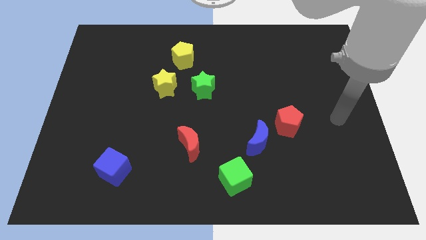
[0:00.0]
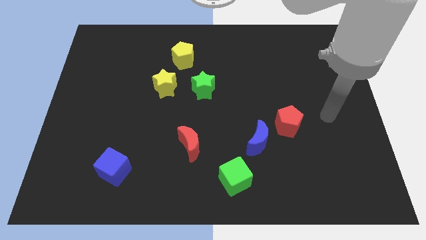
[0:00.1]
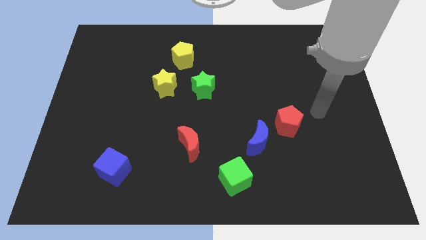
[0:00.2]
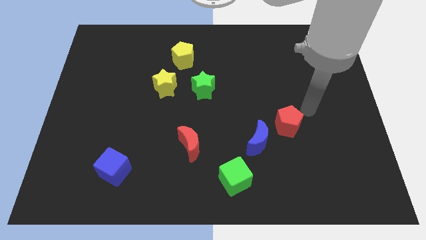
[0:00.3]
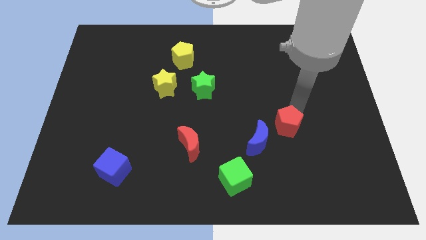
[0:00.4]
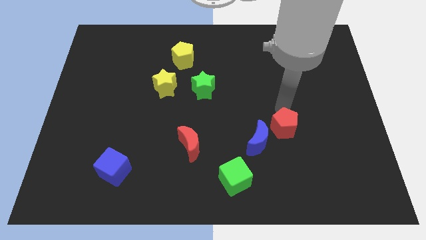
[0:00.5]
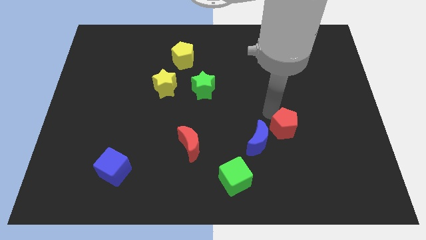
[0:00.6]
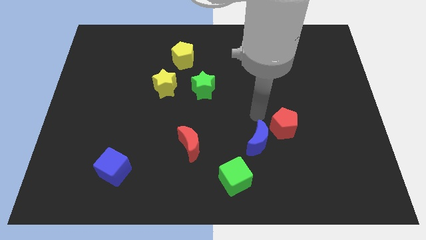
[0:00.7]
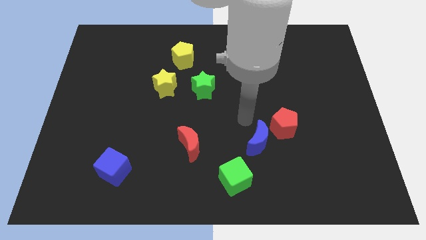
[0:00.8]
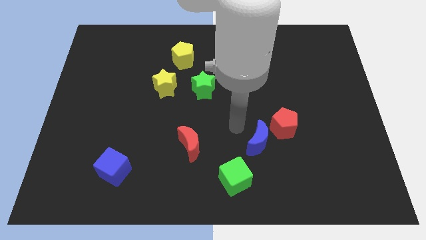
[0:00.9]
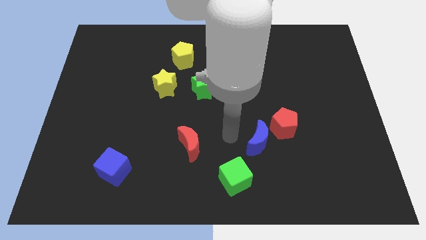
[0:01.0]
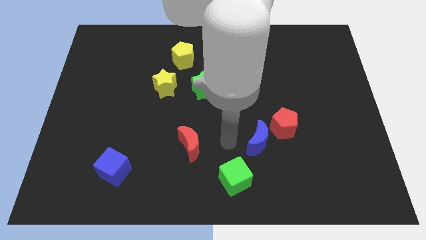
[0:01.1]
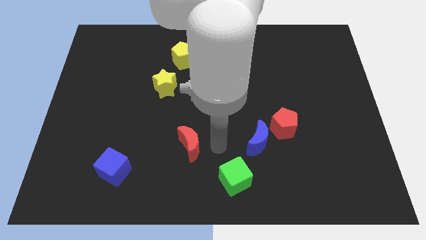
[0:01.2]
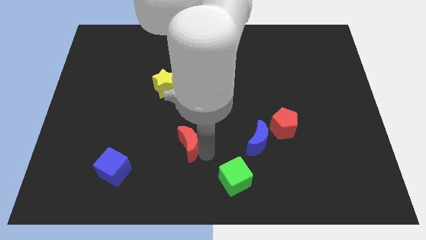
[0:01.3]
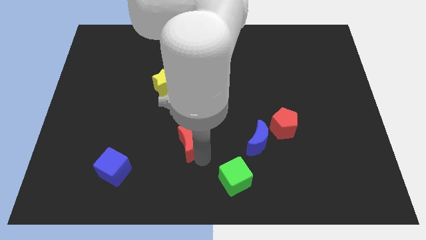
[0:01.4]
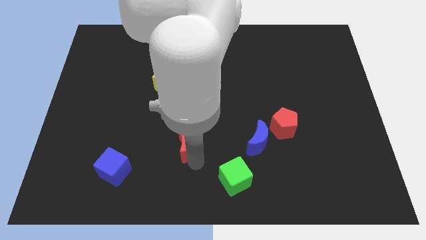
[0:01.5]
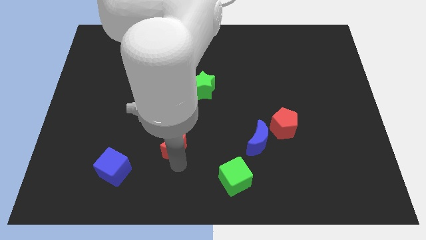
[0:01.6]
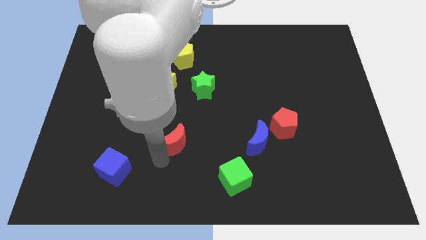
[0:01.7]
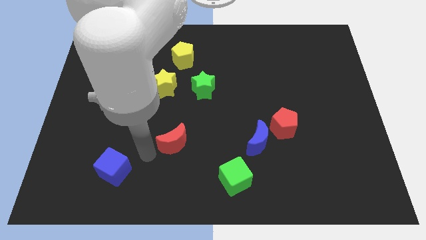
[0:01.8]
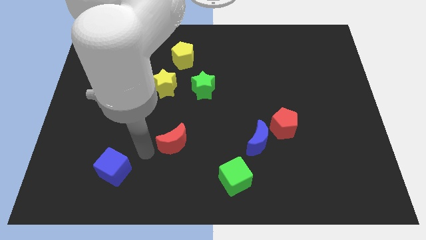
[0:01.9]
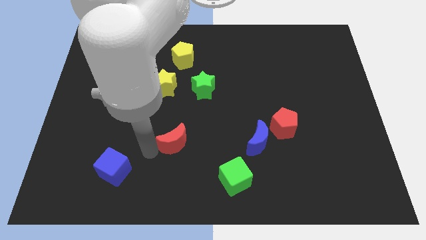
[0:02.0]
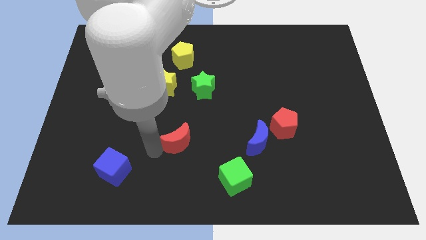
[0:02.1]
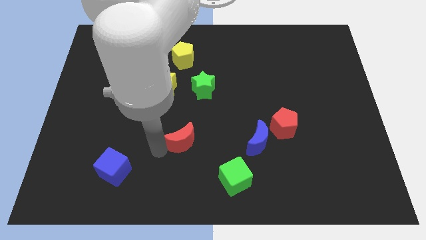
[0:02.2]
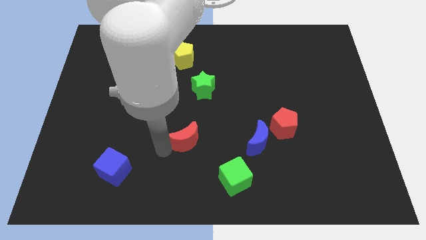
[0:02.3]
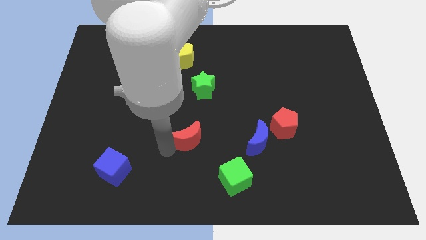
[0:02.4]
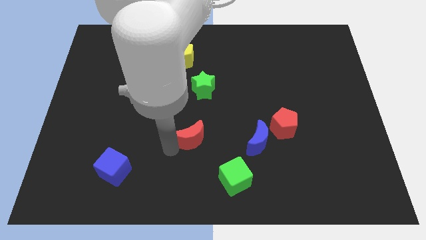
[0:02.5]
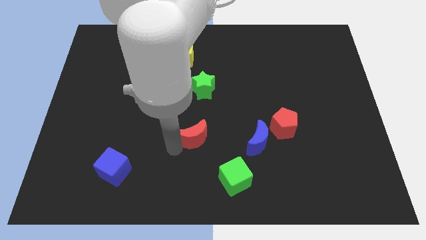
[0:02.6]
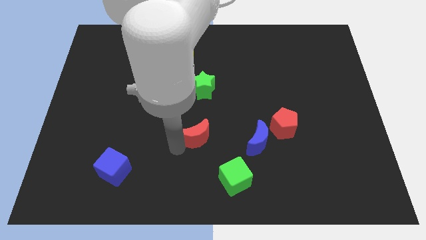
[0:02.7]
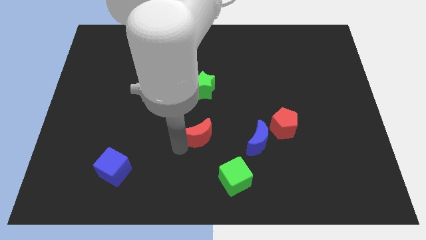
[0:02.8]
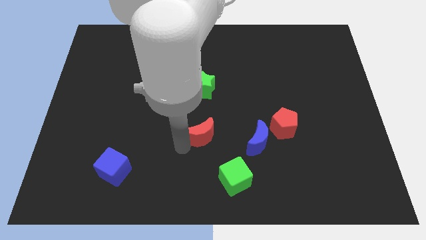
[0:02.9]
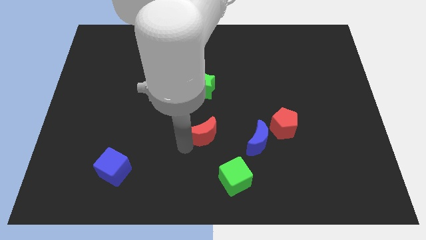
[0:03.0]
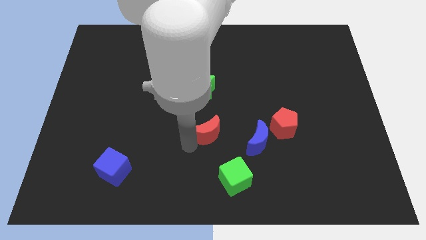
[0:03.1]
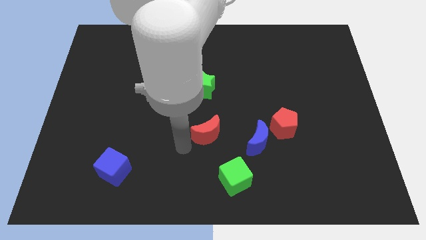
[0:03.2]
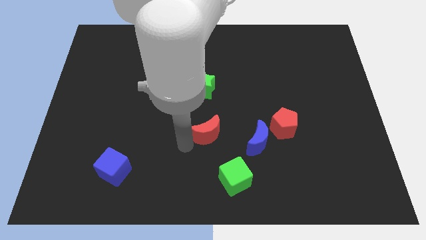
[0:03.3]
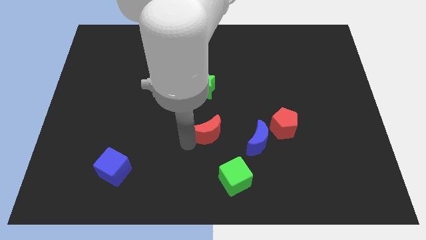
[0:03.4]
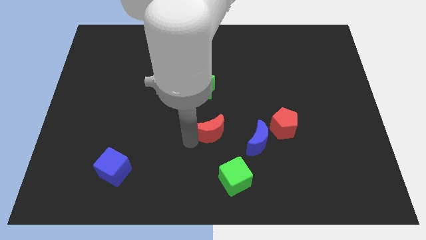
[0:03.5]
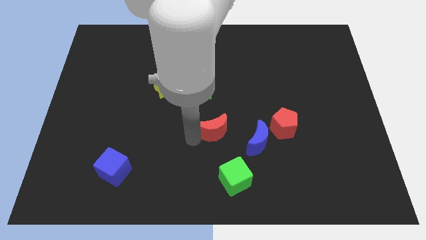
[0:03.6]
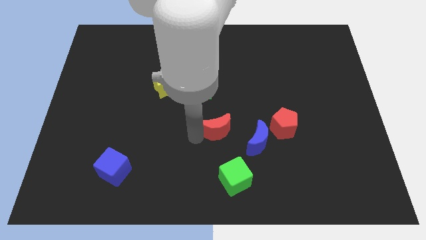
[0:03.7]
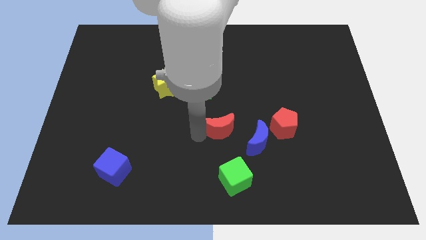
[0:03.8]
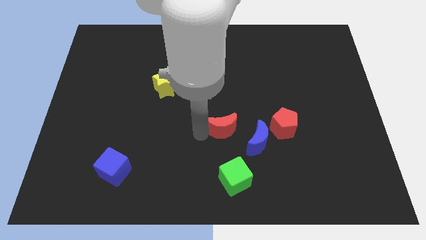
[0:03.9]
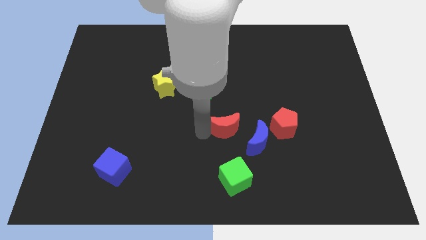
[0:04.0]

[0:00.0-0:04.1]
slide the red moon right slightly

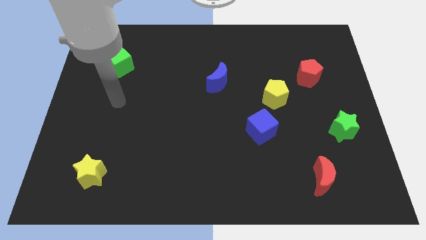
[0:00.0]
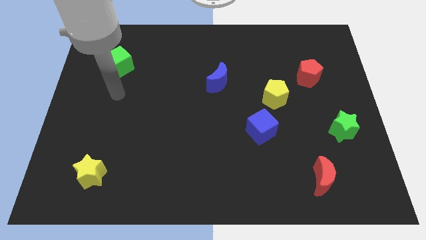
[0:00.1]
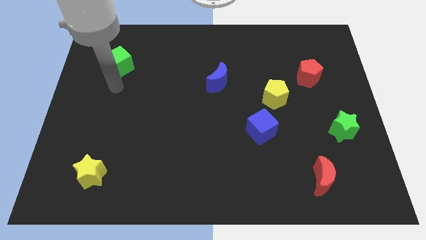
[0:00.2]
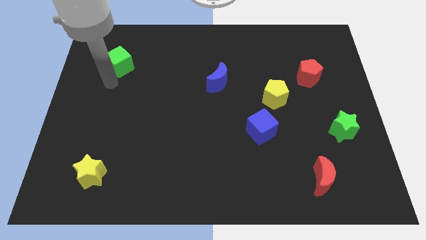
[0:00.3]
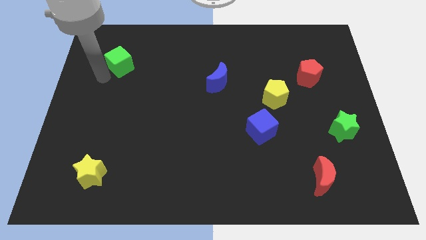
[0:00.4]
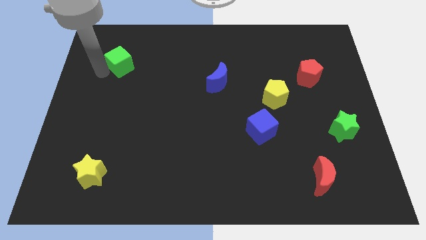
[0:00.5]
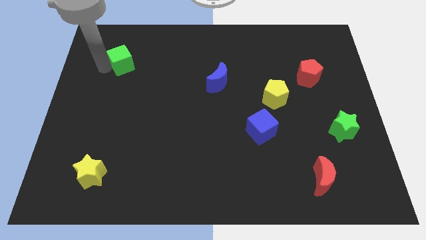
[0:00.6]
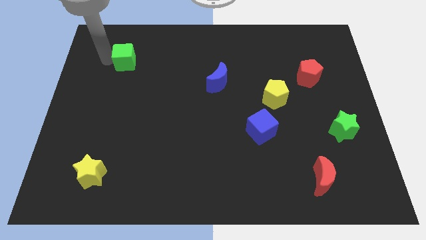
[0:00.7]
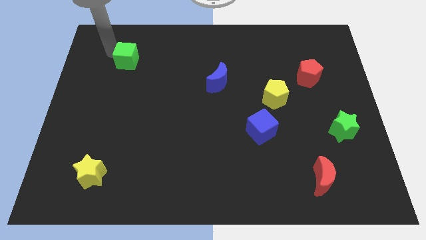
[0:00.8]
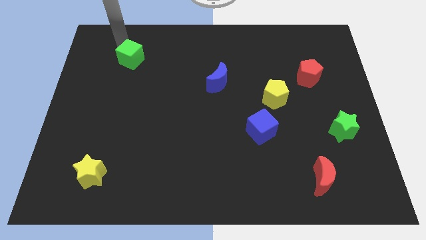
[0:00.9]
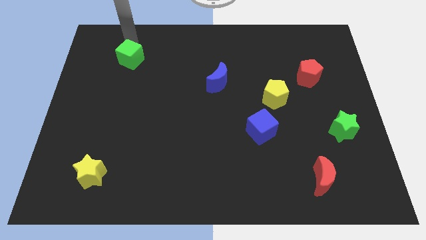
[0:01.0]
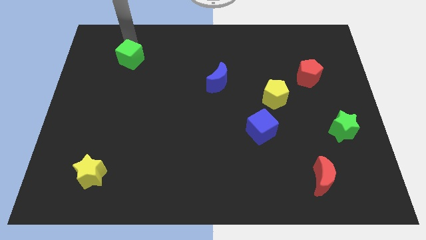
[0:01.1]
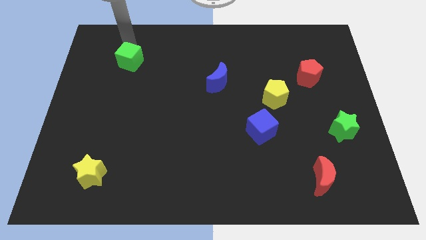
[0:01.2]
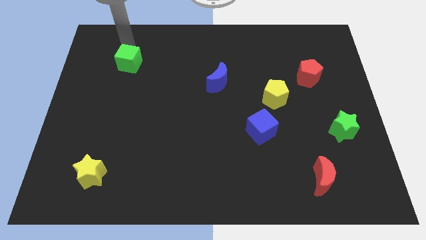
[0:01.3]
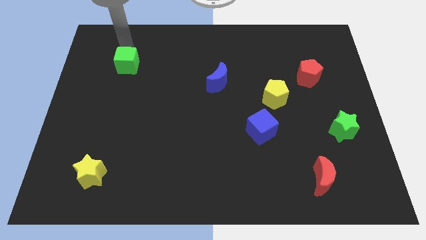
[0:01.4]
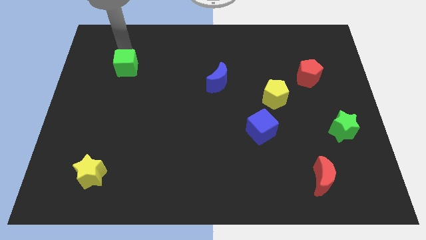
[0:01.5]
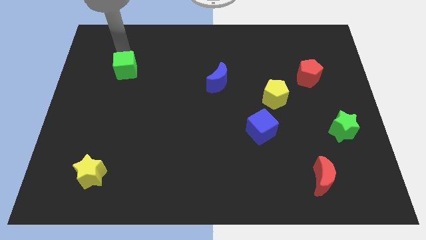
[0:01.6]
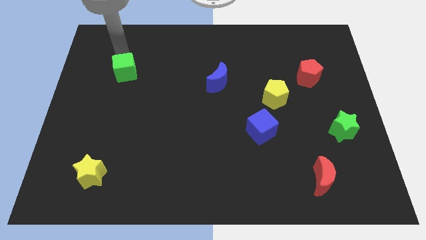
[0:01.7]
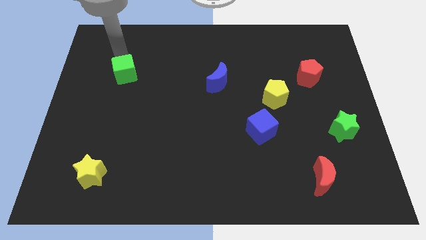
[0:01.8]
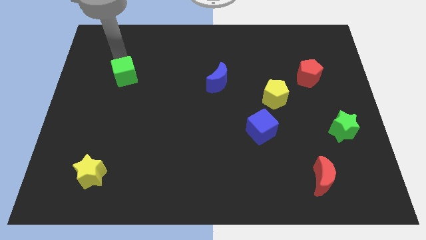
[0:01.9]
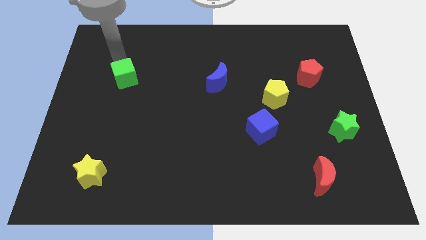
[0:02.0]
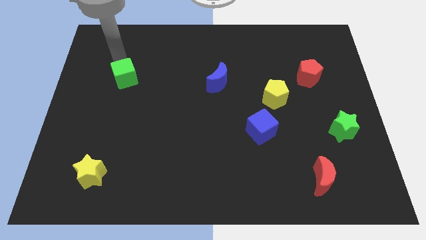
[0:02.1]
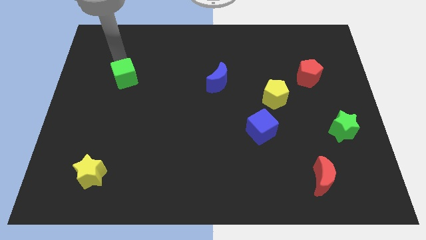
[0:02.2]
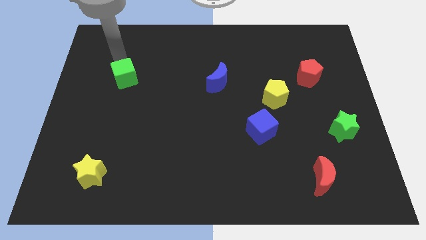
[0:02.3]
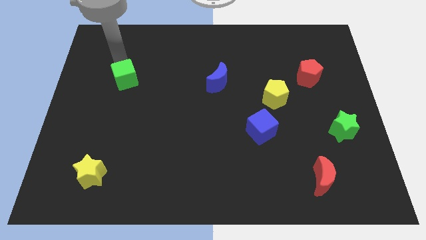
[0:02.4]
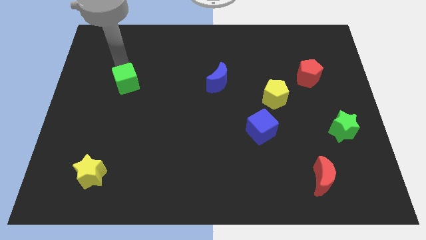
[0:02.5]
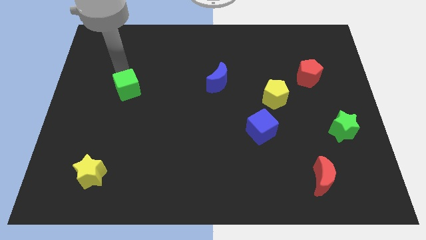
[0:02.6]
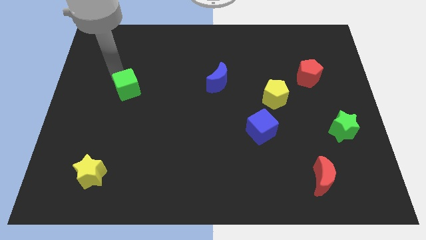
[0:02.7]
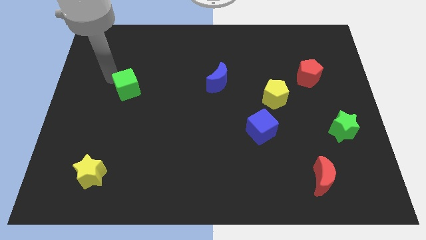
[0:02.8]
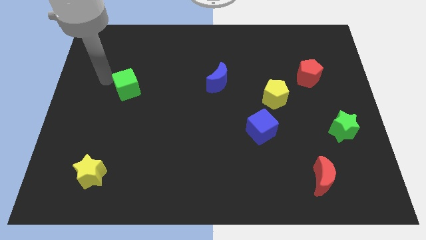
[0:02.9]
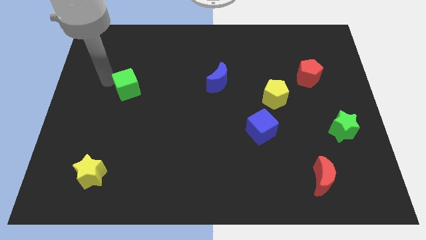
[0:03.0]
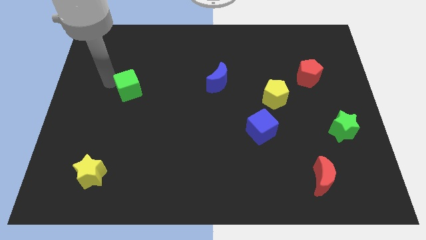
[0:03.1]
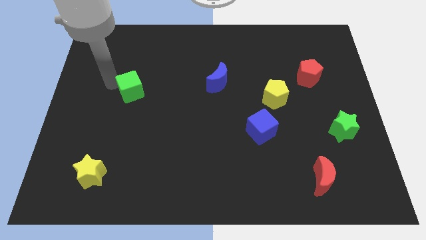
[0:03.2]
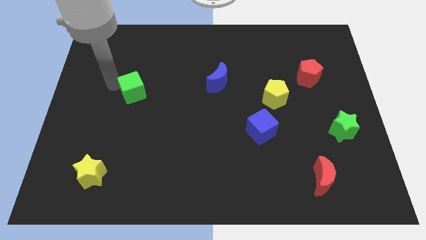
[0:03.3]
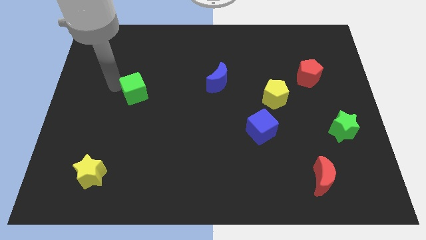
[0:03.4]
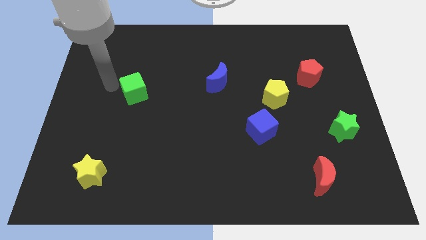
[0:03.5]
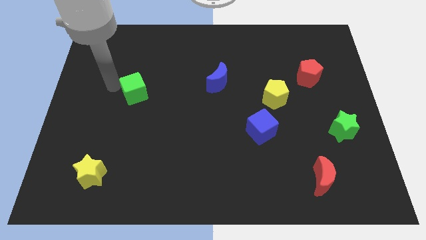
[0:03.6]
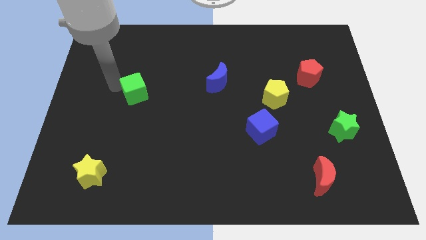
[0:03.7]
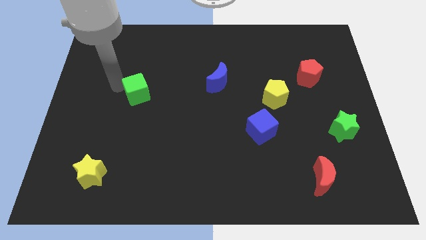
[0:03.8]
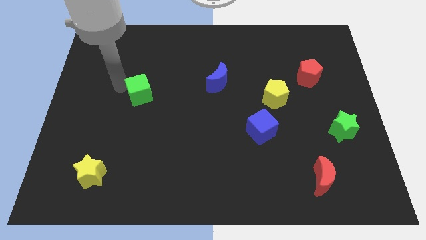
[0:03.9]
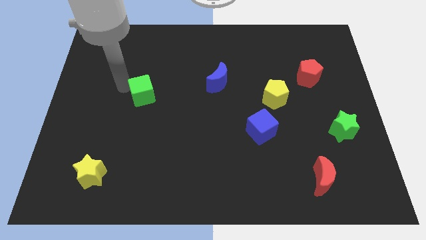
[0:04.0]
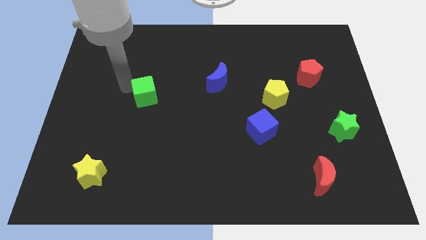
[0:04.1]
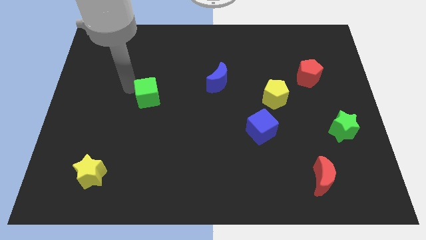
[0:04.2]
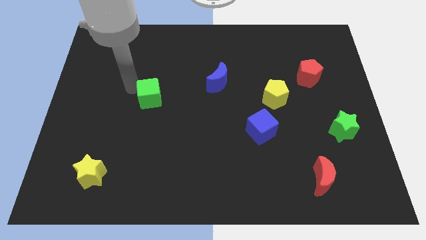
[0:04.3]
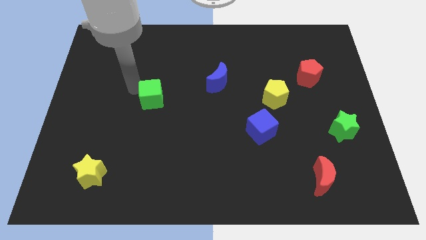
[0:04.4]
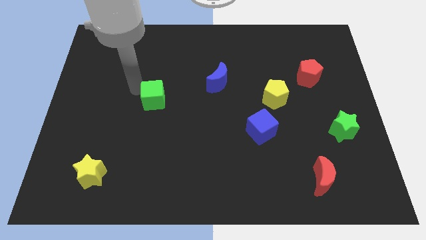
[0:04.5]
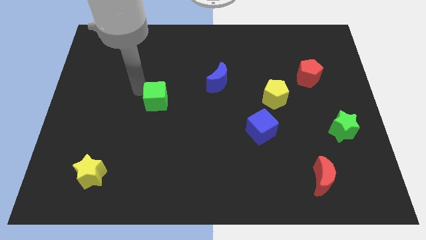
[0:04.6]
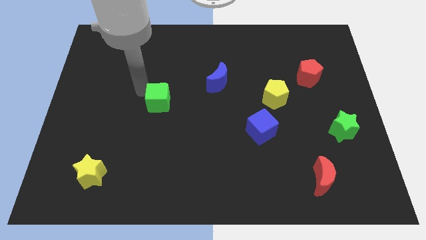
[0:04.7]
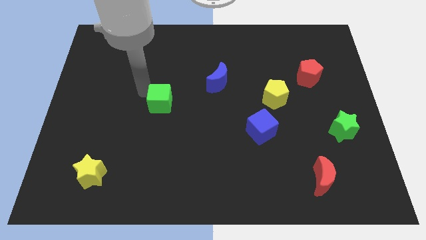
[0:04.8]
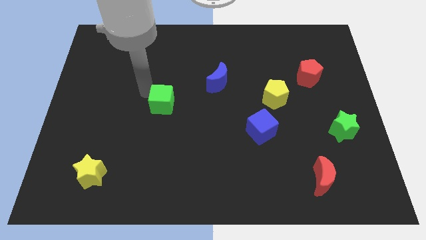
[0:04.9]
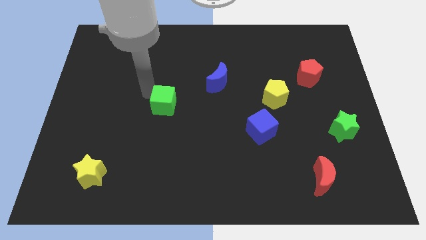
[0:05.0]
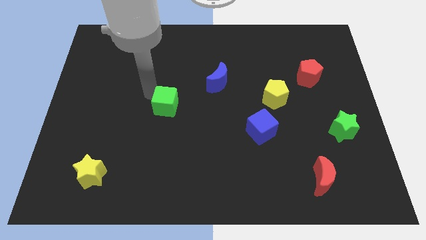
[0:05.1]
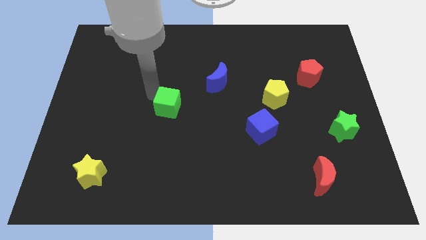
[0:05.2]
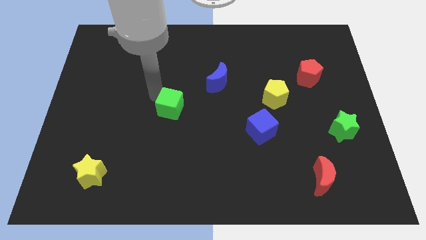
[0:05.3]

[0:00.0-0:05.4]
move the green cube down and to the right diagonally
